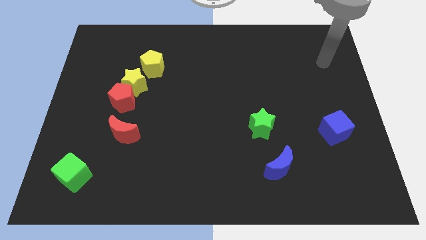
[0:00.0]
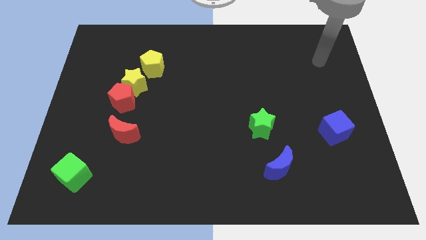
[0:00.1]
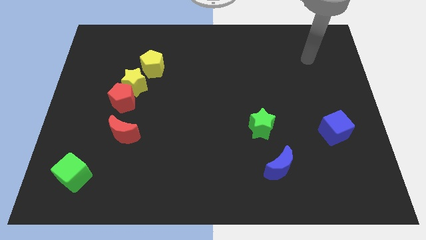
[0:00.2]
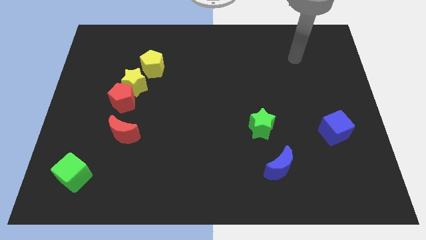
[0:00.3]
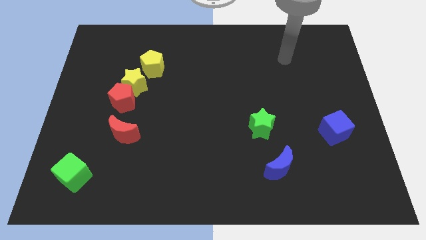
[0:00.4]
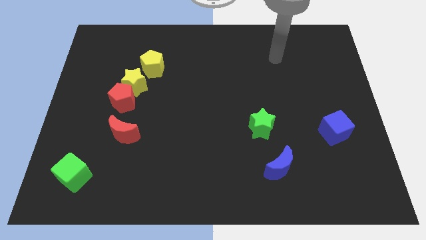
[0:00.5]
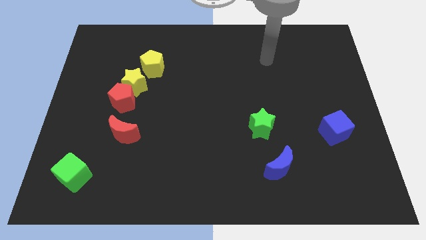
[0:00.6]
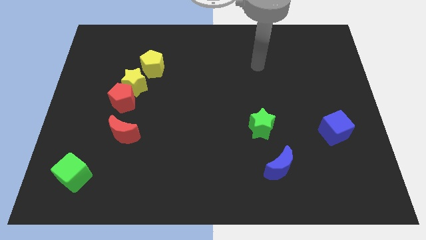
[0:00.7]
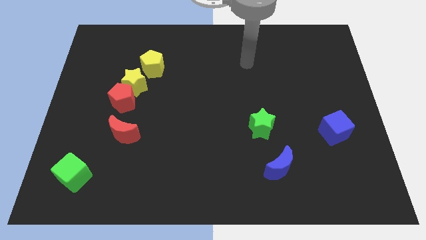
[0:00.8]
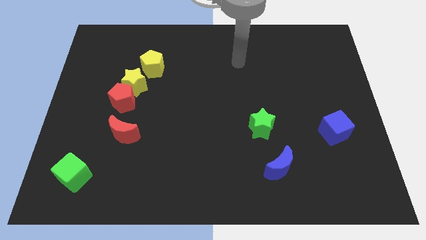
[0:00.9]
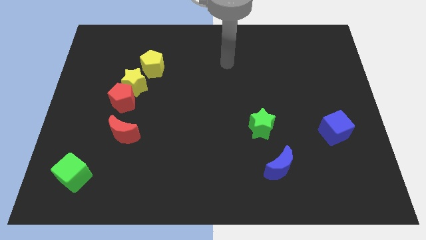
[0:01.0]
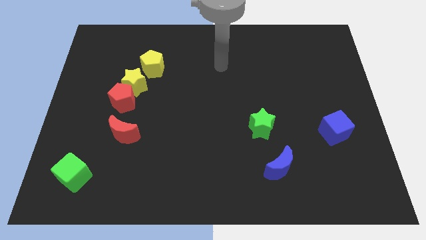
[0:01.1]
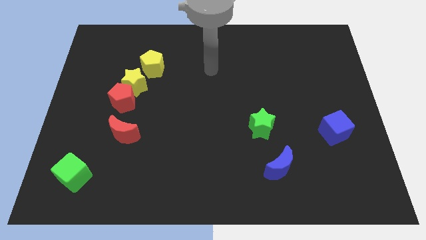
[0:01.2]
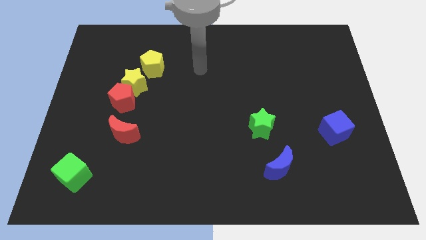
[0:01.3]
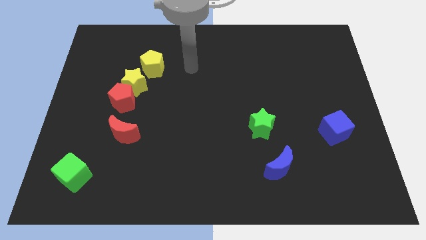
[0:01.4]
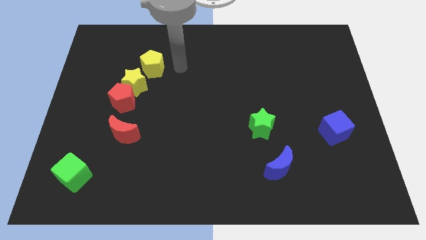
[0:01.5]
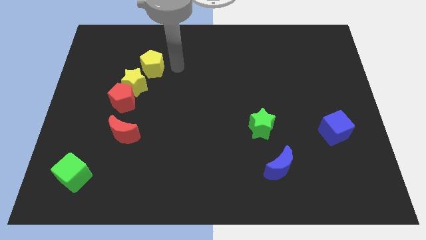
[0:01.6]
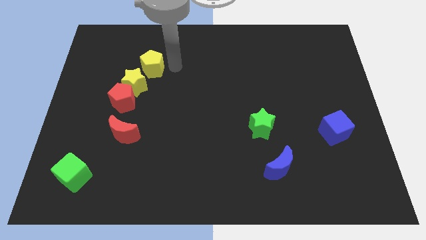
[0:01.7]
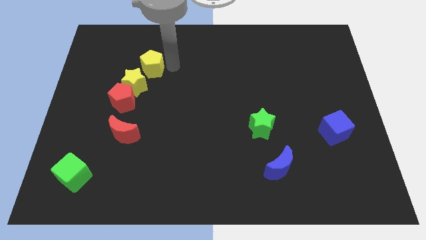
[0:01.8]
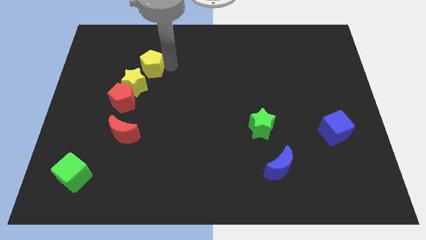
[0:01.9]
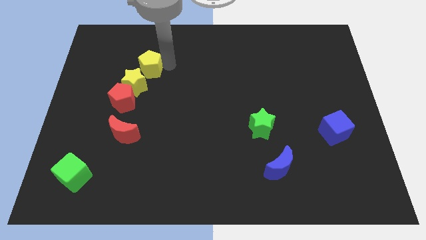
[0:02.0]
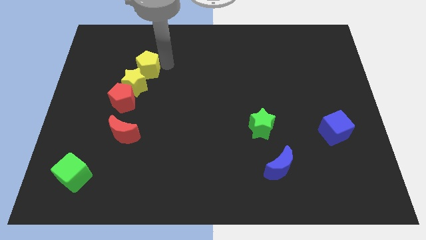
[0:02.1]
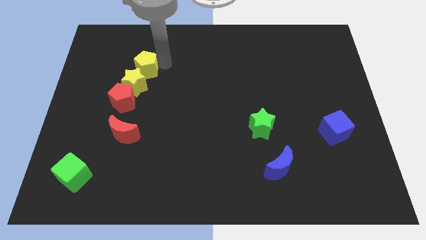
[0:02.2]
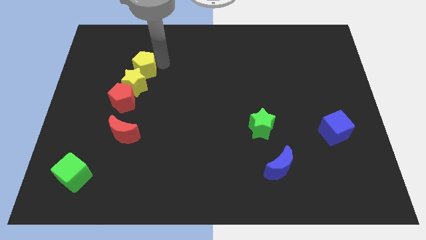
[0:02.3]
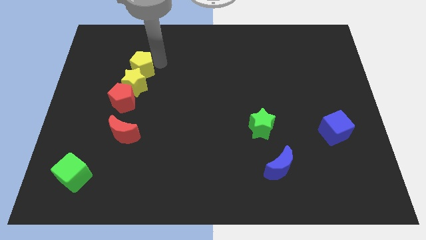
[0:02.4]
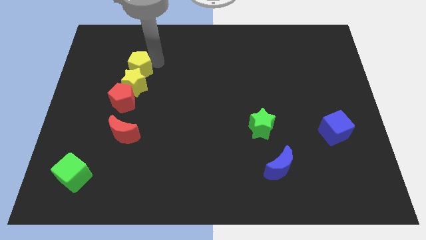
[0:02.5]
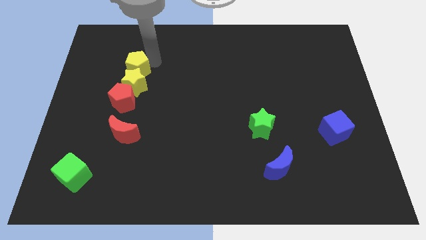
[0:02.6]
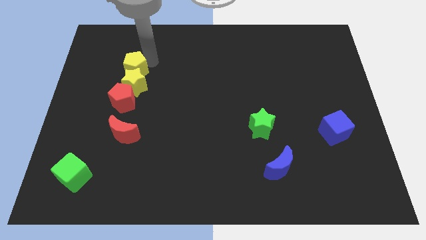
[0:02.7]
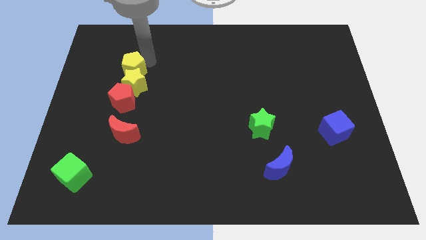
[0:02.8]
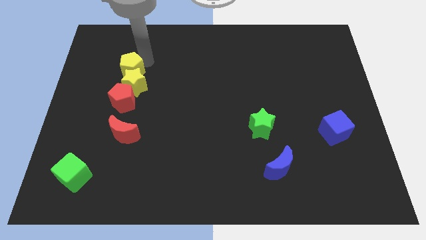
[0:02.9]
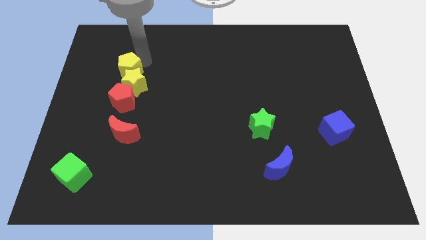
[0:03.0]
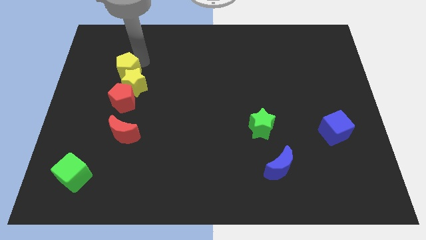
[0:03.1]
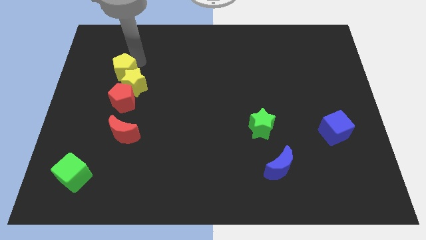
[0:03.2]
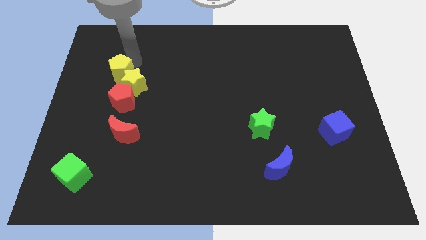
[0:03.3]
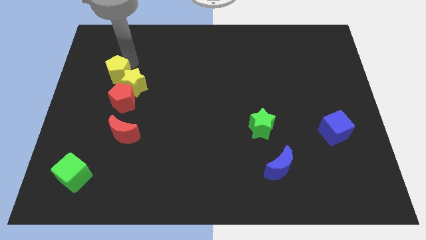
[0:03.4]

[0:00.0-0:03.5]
slightly push the yellow pentagon down and to the left diagonally

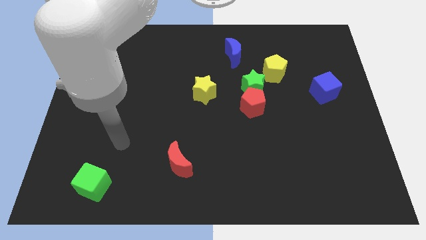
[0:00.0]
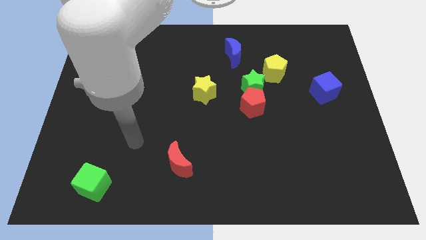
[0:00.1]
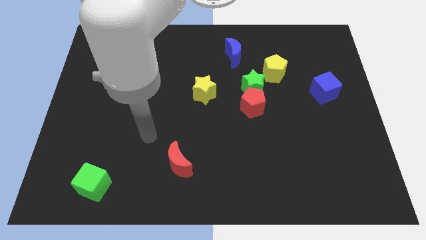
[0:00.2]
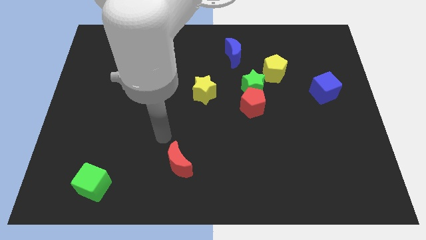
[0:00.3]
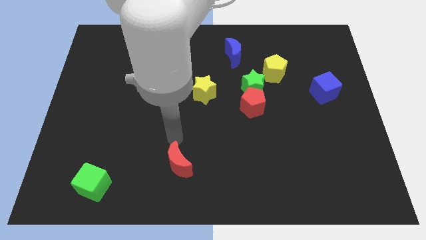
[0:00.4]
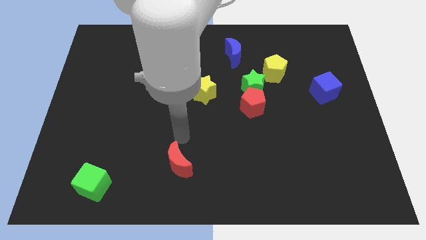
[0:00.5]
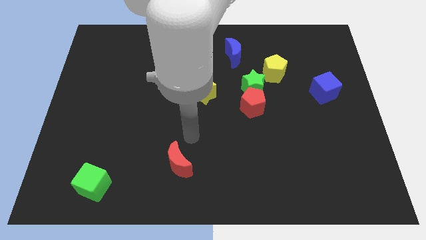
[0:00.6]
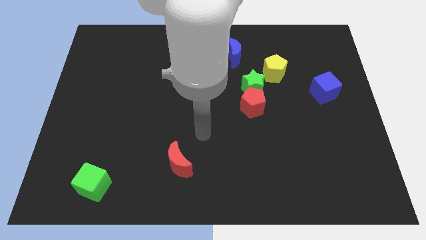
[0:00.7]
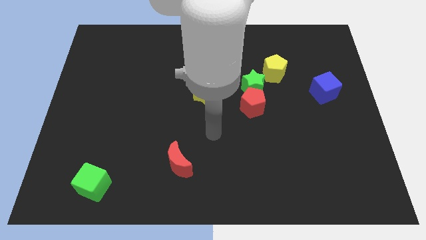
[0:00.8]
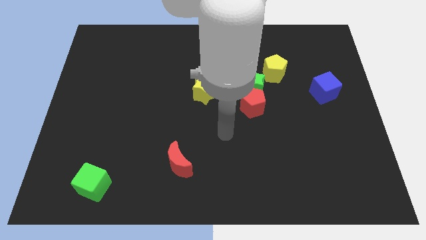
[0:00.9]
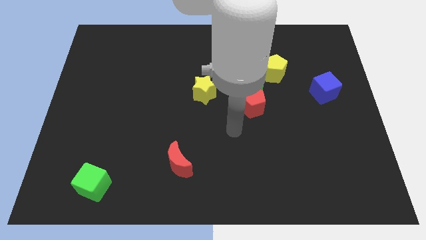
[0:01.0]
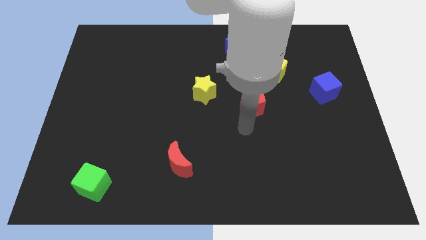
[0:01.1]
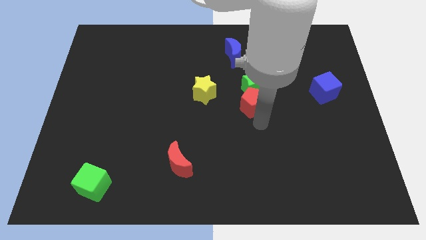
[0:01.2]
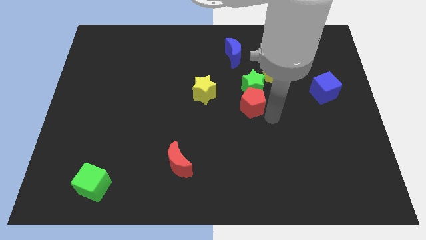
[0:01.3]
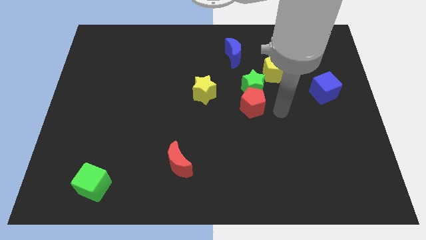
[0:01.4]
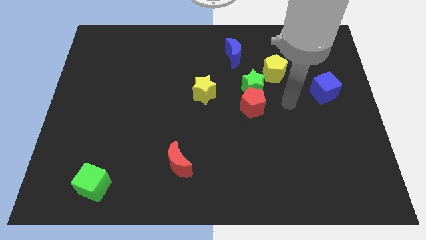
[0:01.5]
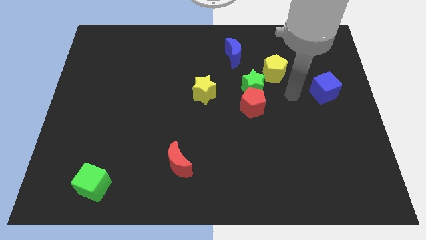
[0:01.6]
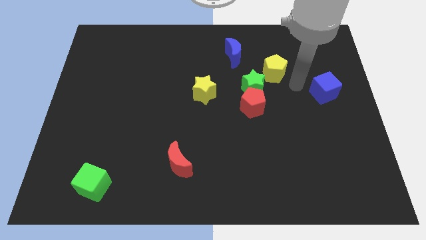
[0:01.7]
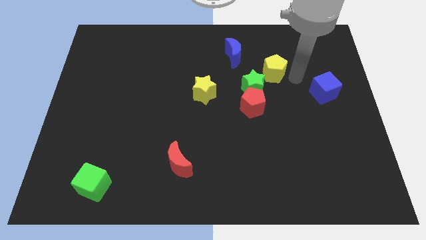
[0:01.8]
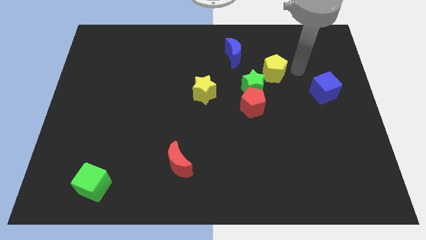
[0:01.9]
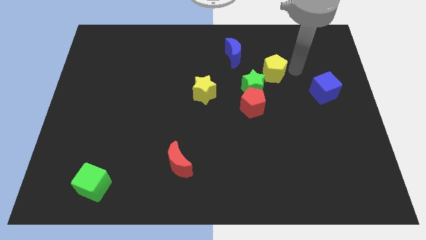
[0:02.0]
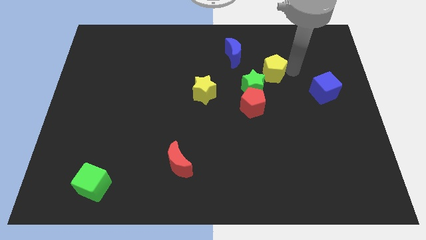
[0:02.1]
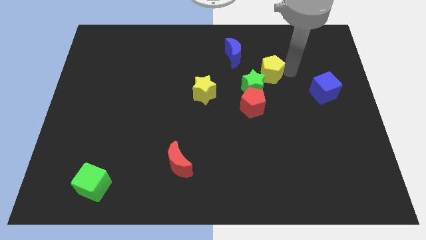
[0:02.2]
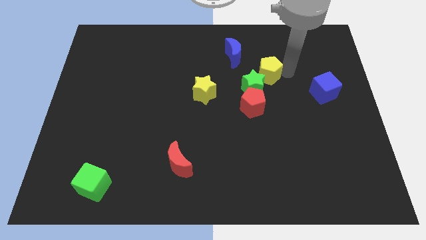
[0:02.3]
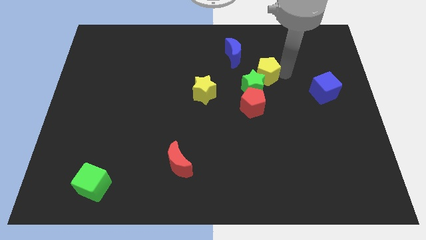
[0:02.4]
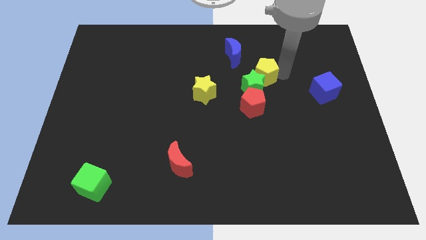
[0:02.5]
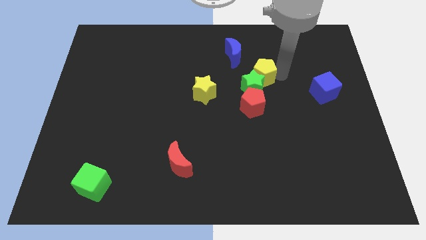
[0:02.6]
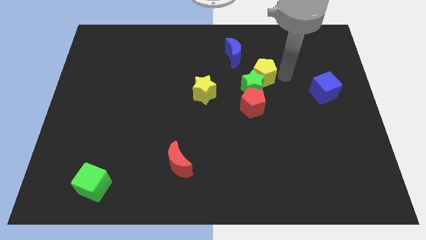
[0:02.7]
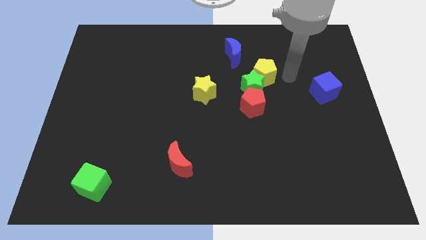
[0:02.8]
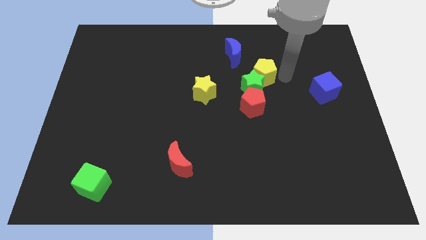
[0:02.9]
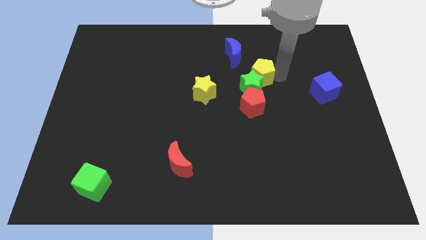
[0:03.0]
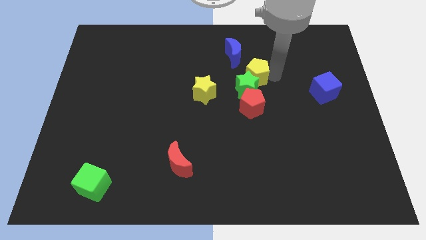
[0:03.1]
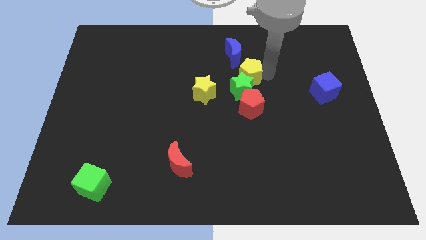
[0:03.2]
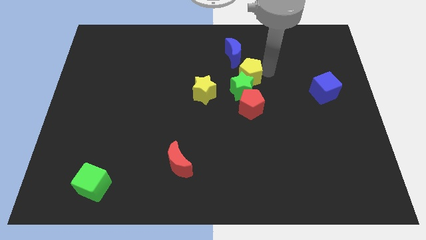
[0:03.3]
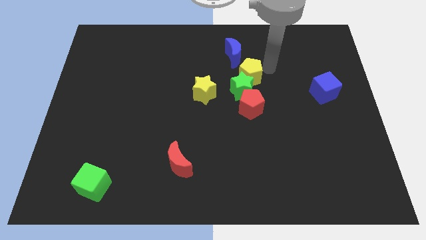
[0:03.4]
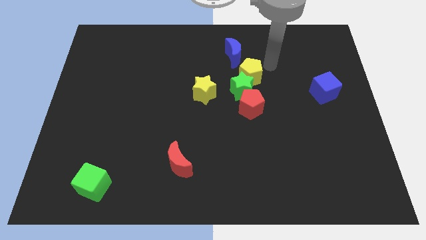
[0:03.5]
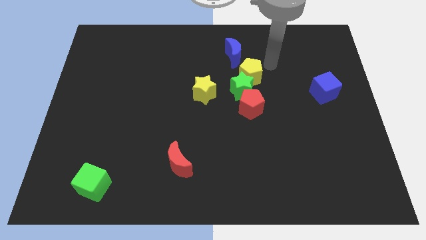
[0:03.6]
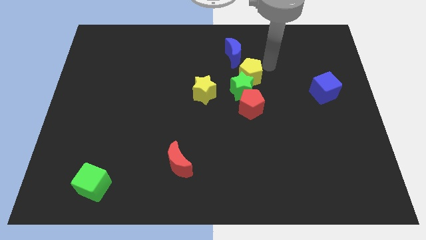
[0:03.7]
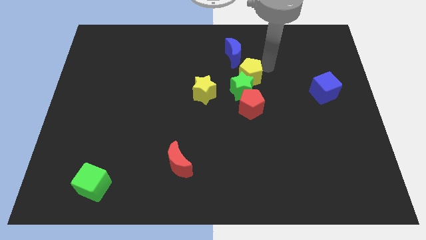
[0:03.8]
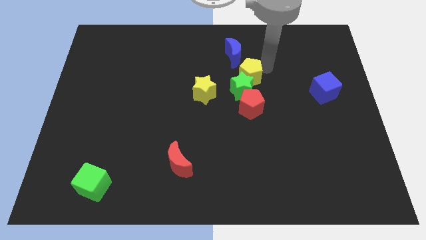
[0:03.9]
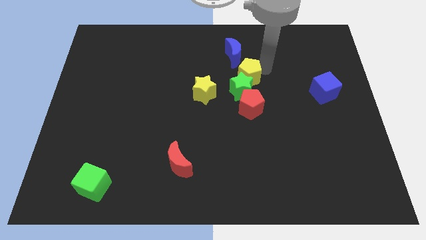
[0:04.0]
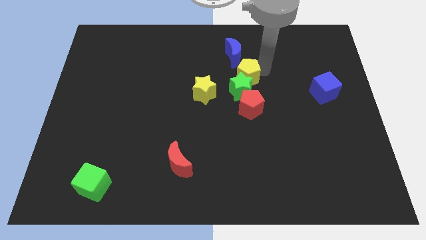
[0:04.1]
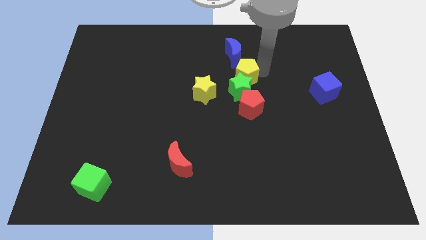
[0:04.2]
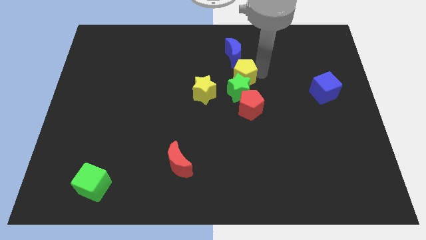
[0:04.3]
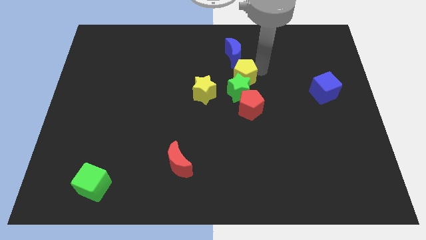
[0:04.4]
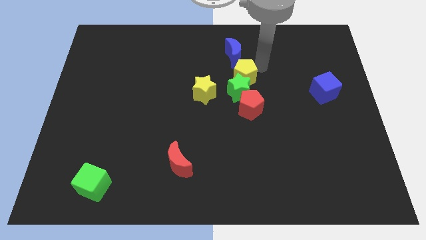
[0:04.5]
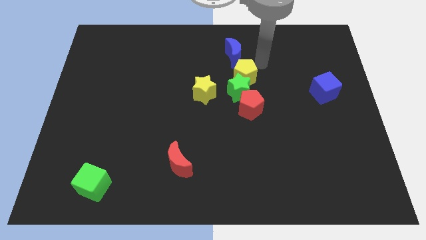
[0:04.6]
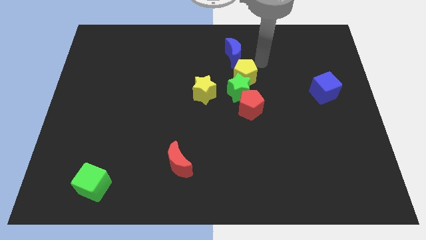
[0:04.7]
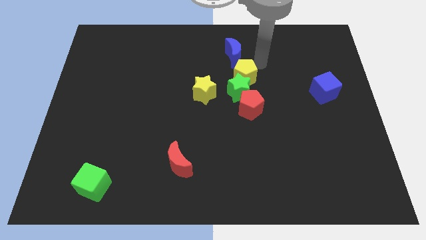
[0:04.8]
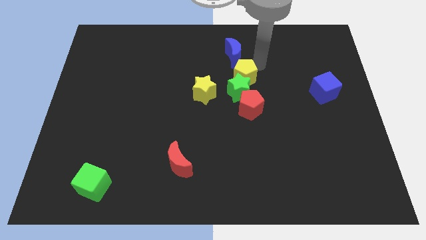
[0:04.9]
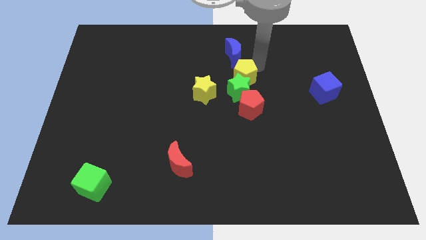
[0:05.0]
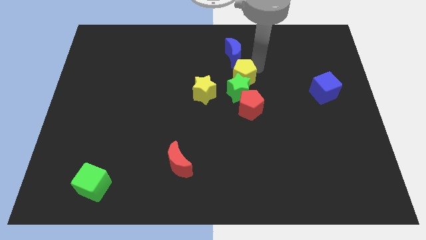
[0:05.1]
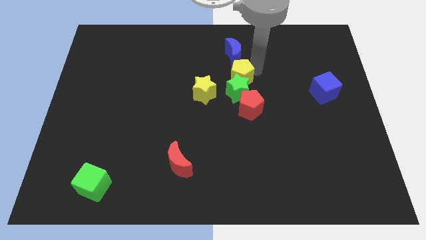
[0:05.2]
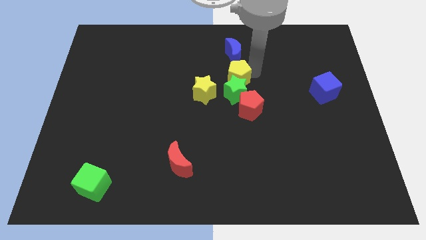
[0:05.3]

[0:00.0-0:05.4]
slide the yellow pentagon a little downwards and then to the left
